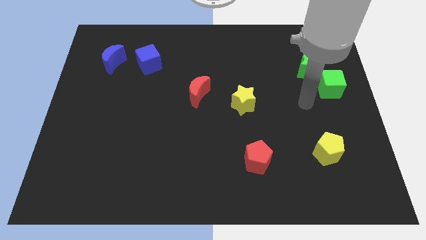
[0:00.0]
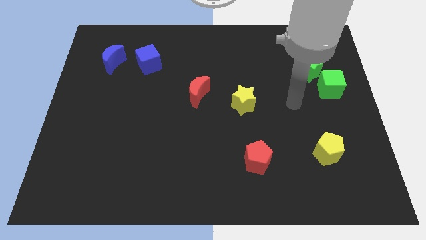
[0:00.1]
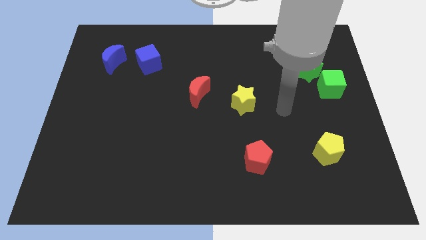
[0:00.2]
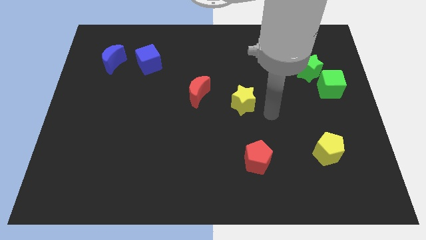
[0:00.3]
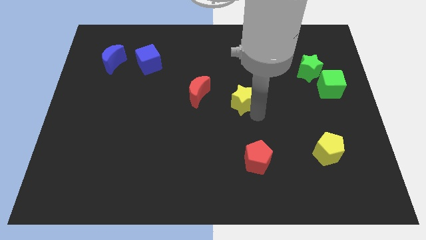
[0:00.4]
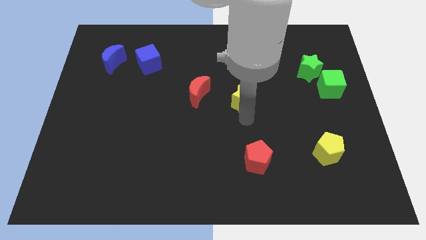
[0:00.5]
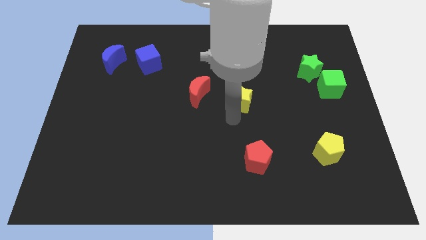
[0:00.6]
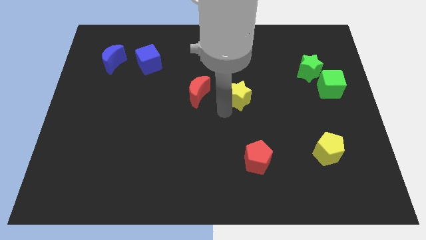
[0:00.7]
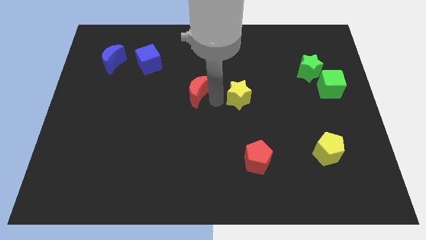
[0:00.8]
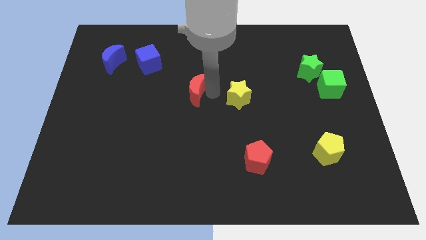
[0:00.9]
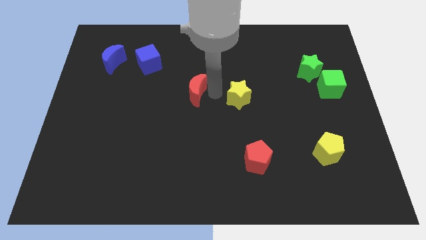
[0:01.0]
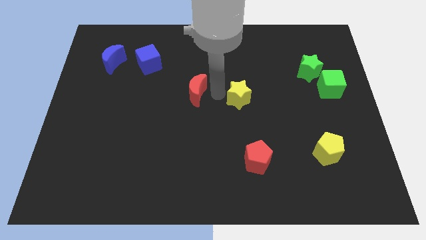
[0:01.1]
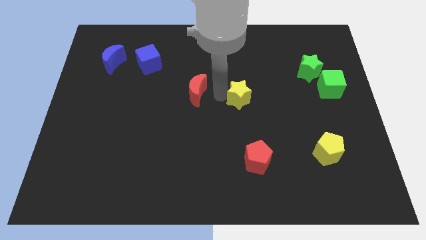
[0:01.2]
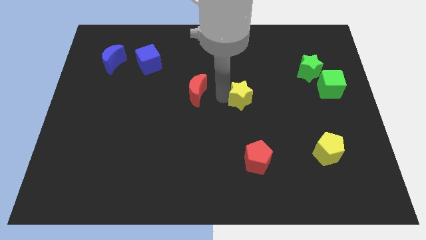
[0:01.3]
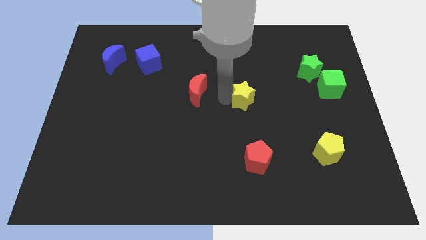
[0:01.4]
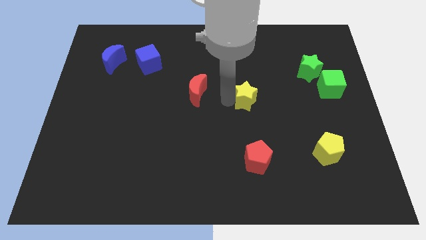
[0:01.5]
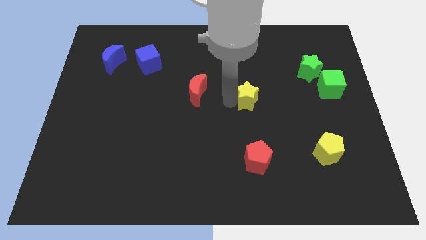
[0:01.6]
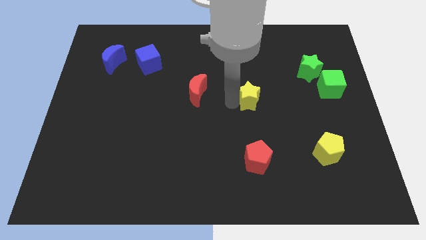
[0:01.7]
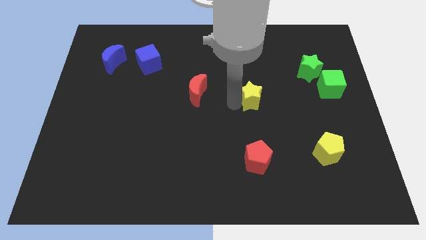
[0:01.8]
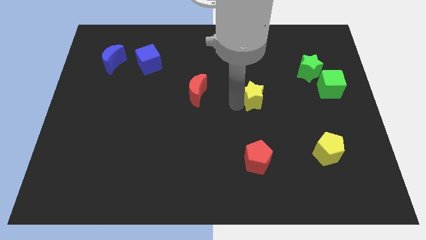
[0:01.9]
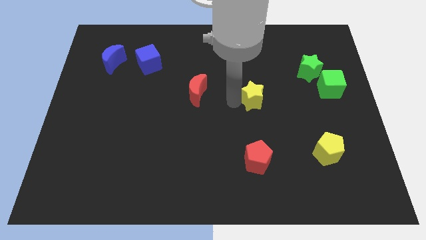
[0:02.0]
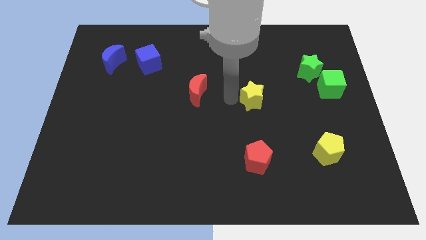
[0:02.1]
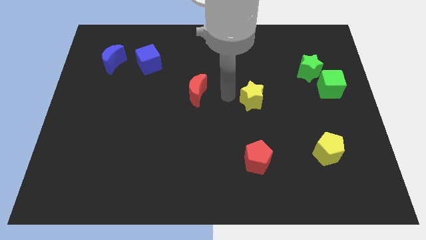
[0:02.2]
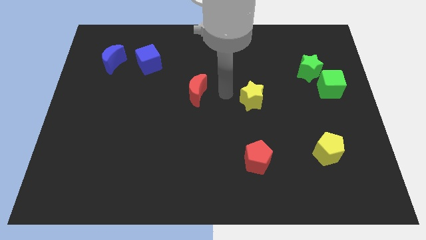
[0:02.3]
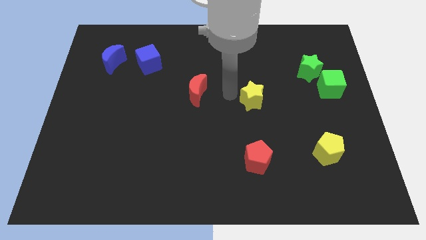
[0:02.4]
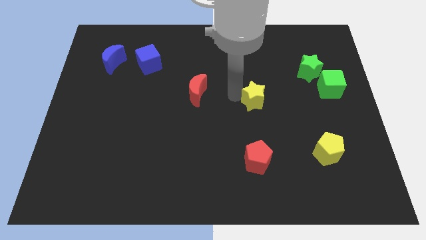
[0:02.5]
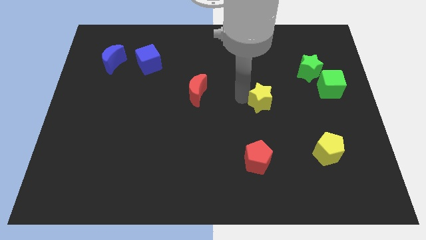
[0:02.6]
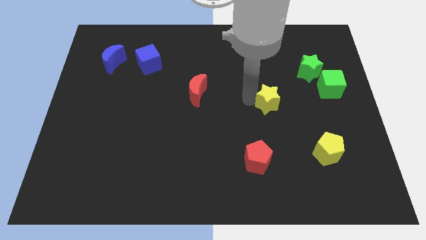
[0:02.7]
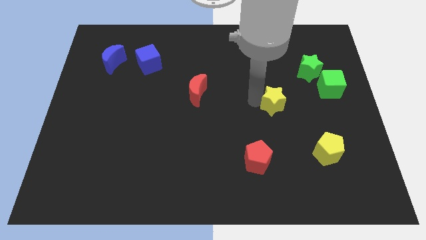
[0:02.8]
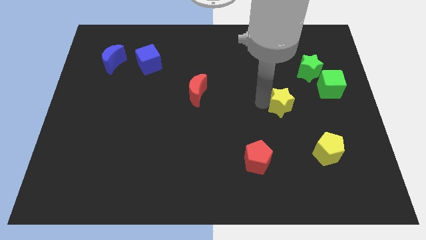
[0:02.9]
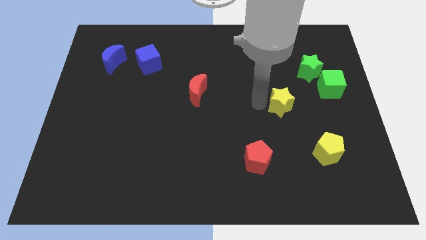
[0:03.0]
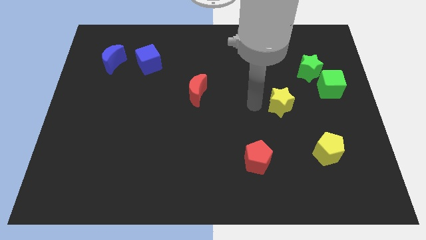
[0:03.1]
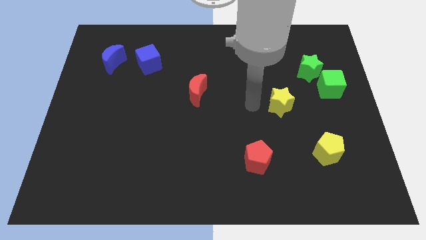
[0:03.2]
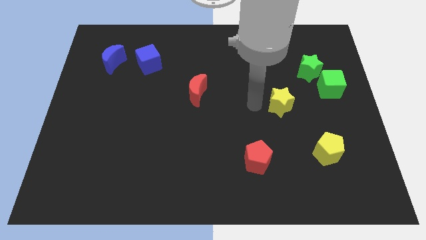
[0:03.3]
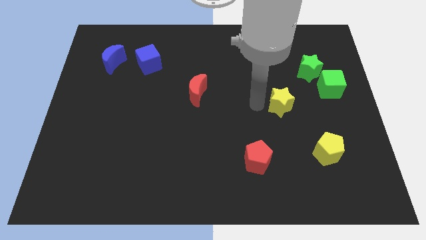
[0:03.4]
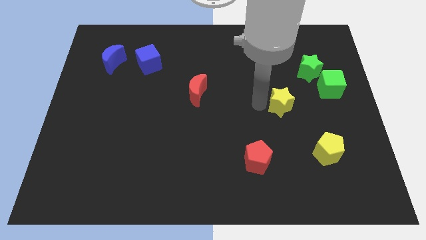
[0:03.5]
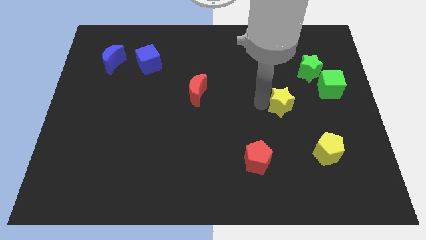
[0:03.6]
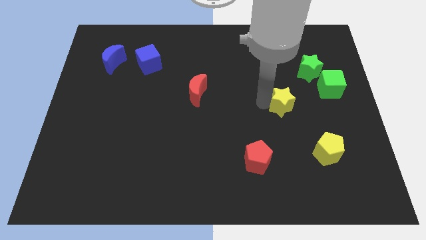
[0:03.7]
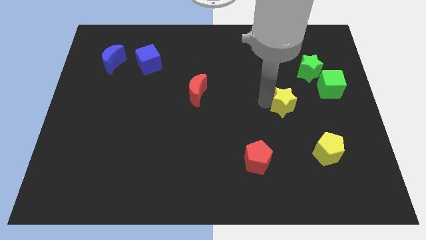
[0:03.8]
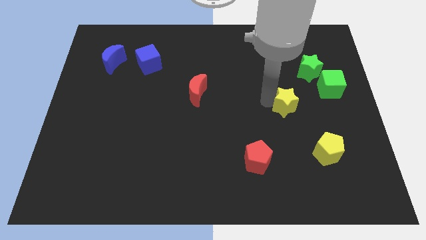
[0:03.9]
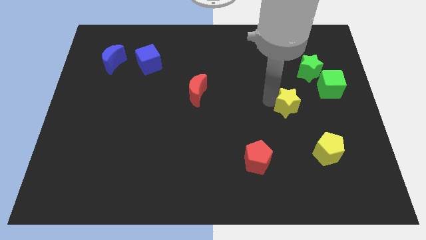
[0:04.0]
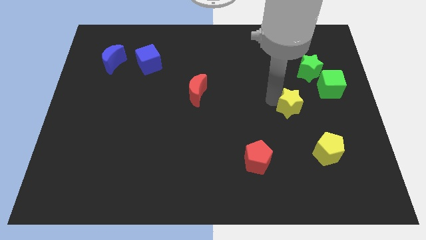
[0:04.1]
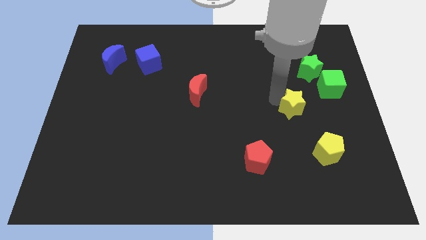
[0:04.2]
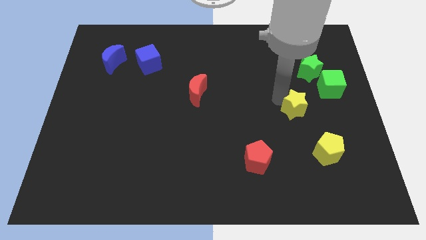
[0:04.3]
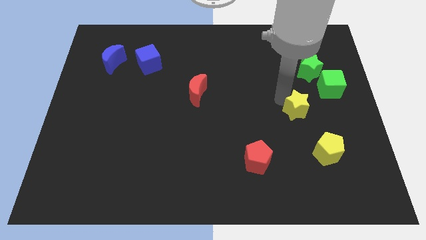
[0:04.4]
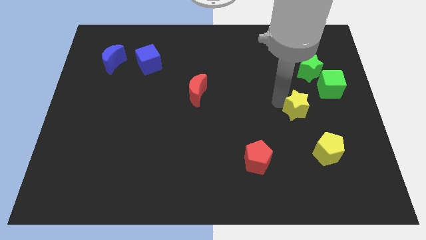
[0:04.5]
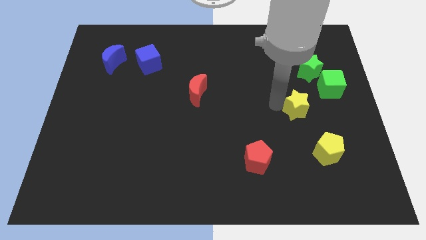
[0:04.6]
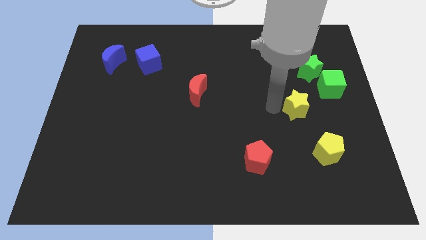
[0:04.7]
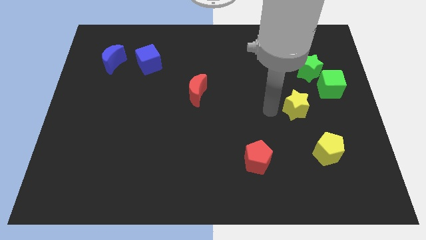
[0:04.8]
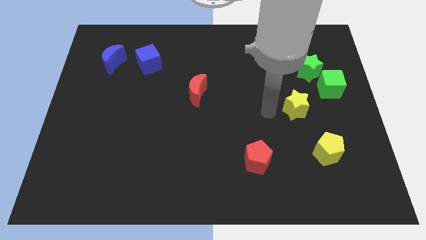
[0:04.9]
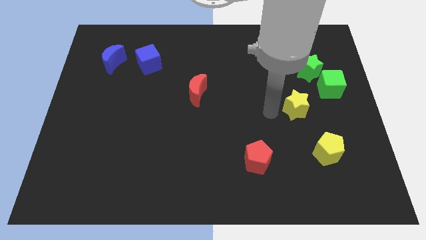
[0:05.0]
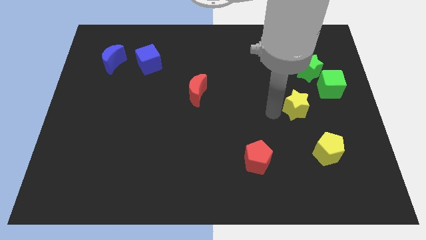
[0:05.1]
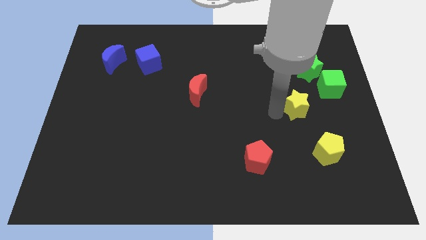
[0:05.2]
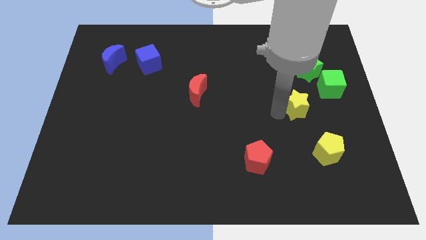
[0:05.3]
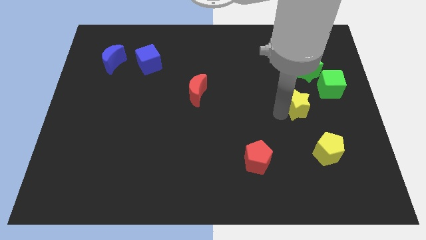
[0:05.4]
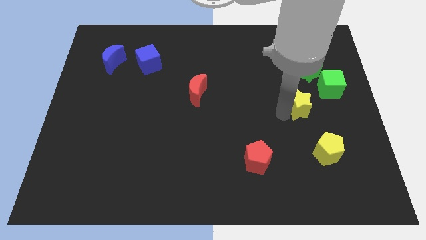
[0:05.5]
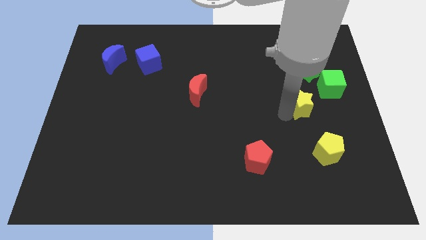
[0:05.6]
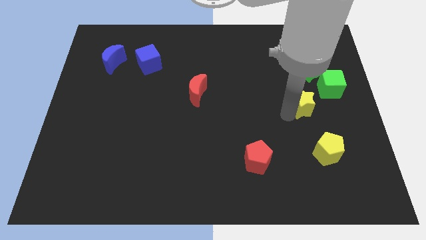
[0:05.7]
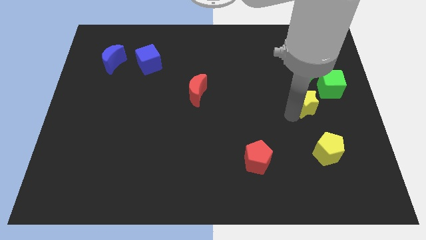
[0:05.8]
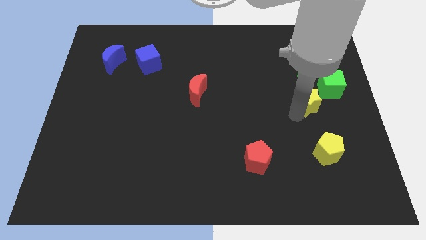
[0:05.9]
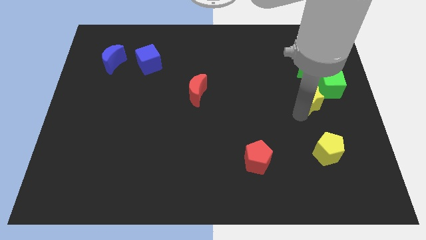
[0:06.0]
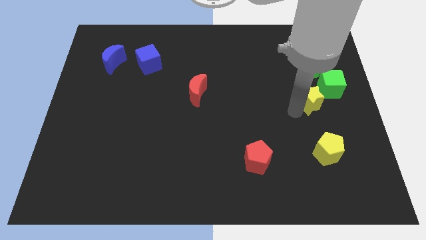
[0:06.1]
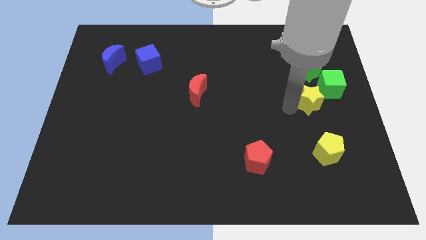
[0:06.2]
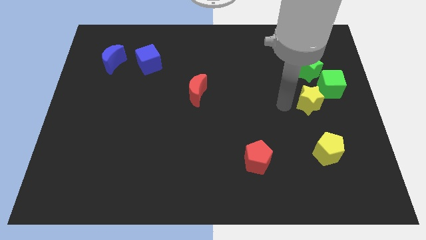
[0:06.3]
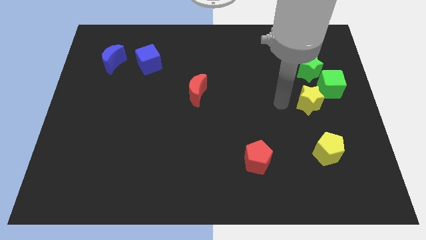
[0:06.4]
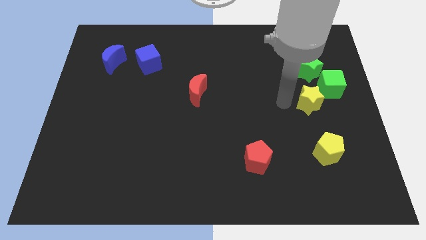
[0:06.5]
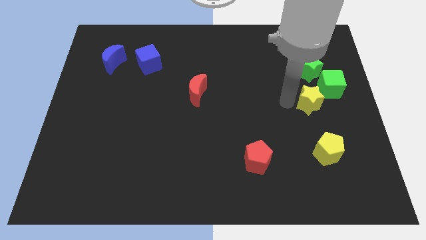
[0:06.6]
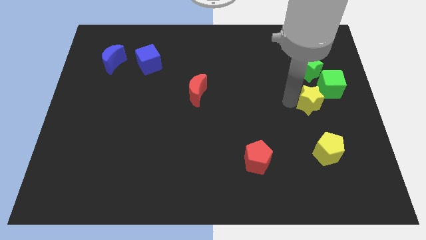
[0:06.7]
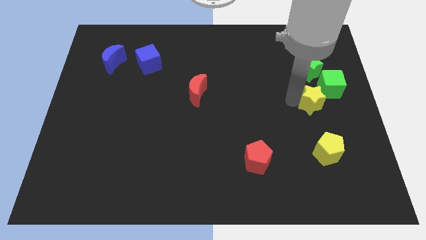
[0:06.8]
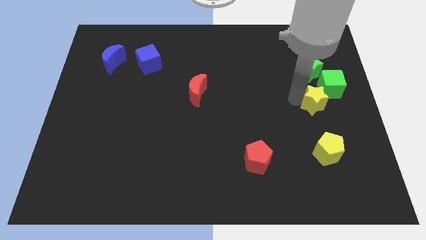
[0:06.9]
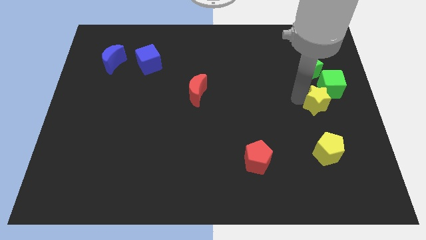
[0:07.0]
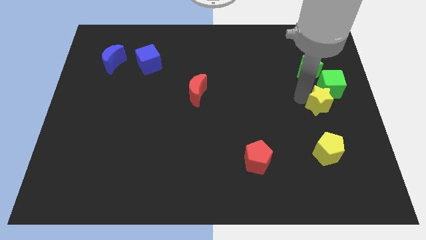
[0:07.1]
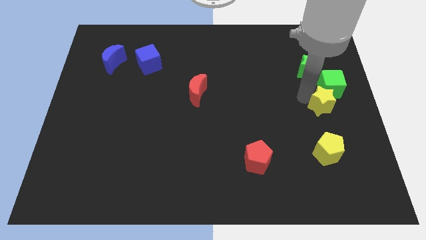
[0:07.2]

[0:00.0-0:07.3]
push the yellow star to the center right
